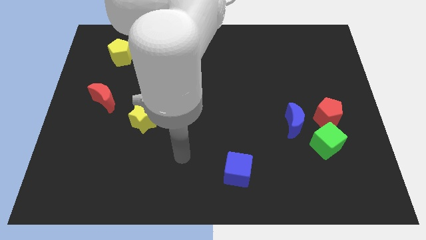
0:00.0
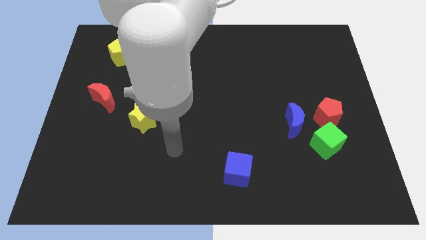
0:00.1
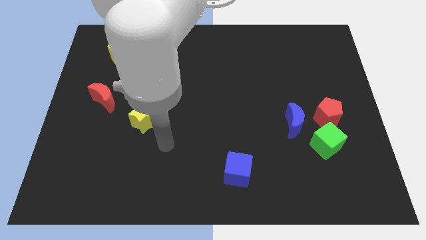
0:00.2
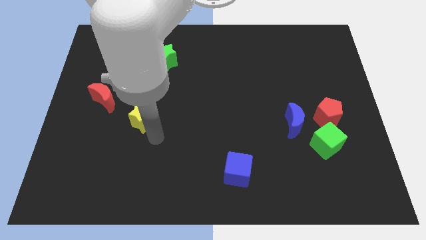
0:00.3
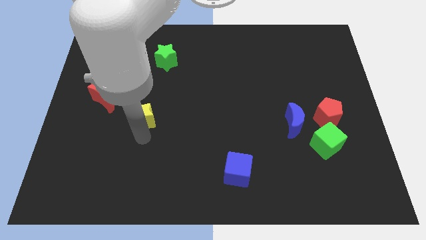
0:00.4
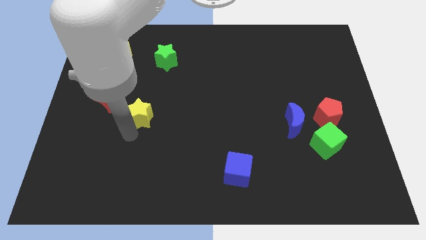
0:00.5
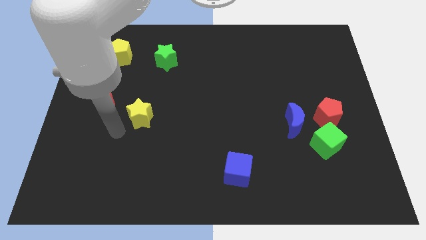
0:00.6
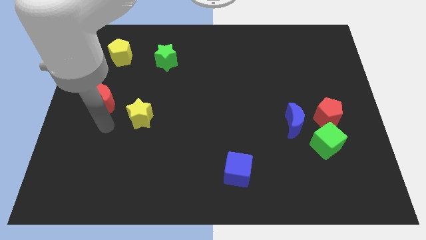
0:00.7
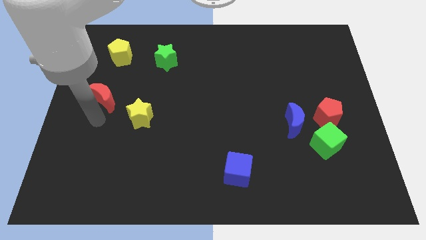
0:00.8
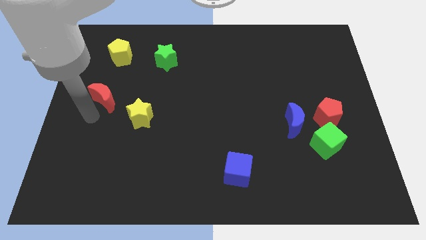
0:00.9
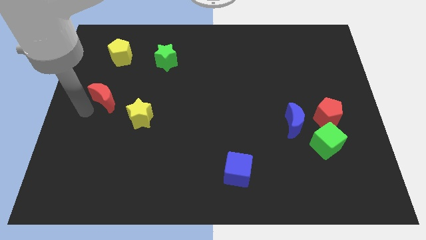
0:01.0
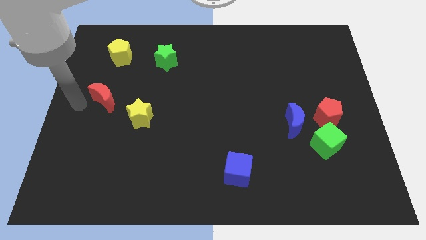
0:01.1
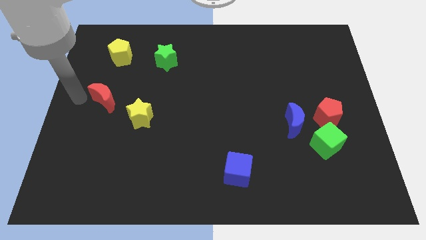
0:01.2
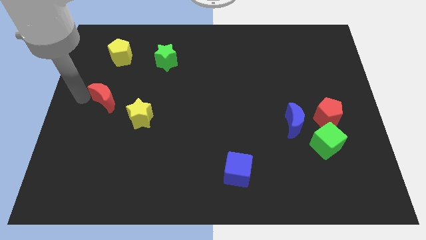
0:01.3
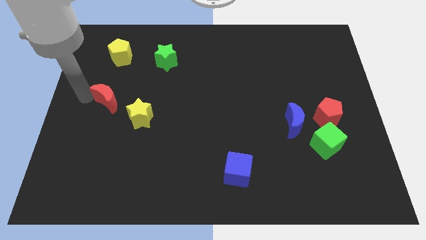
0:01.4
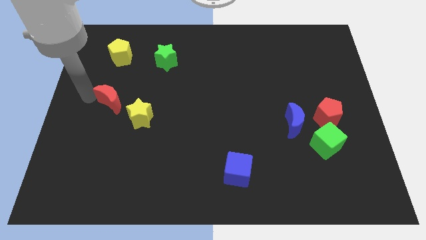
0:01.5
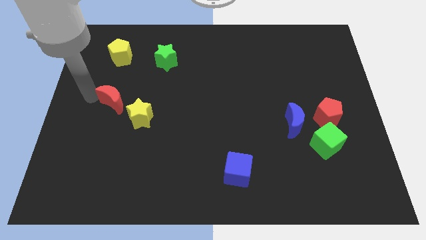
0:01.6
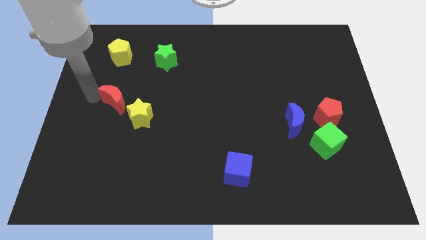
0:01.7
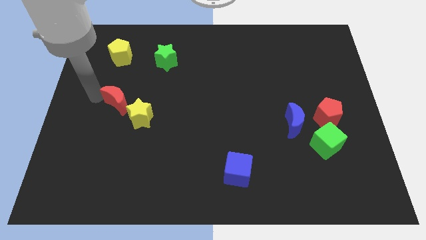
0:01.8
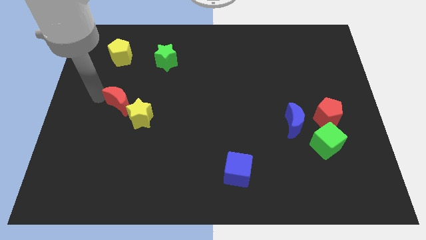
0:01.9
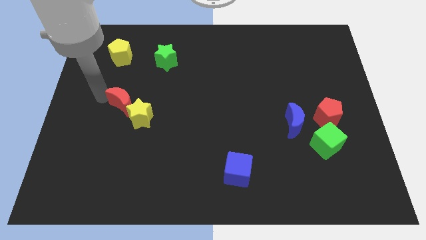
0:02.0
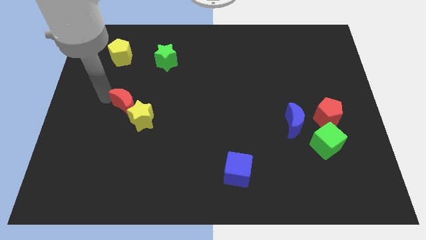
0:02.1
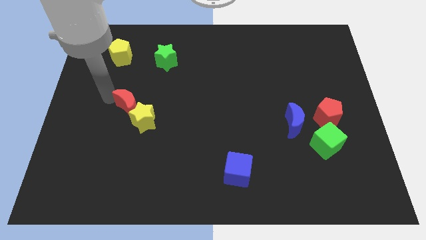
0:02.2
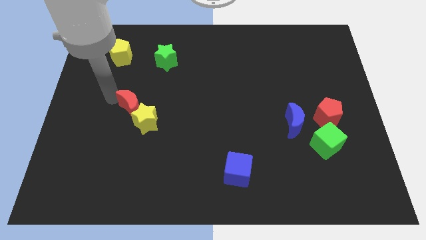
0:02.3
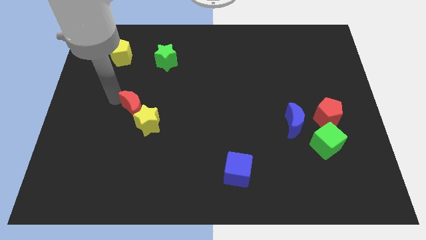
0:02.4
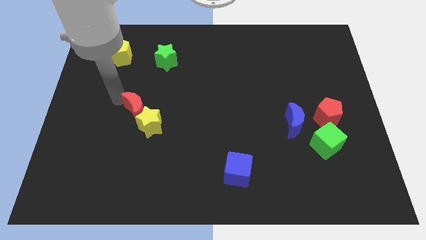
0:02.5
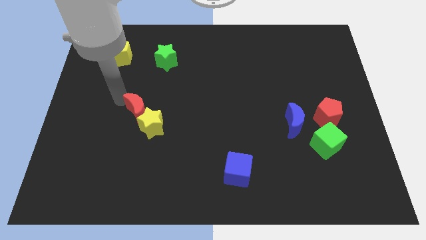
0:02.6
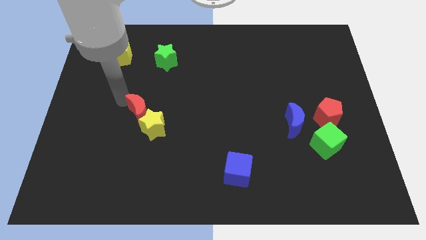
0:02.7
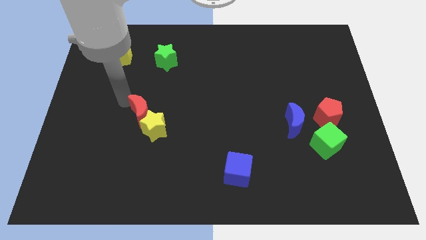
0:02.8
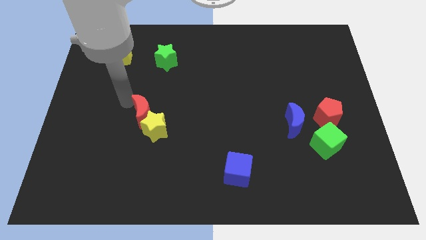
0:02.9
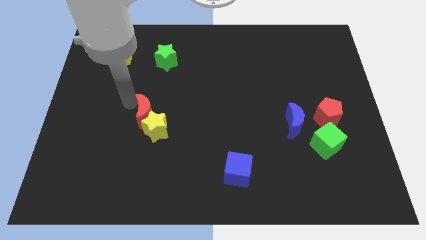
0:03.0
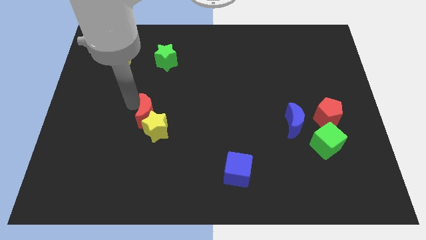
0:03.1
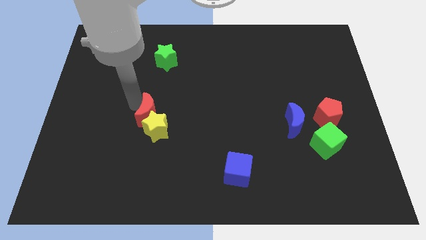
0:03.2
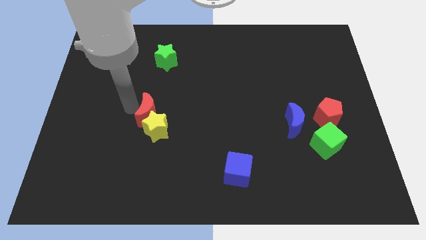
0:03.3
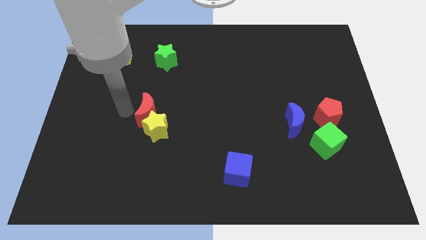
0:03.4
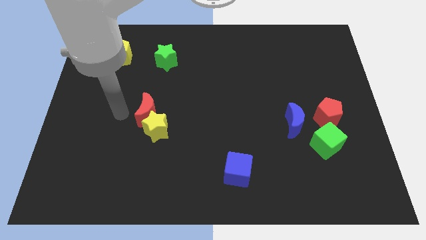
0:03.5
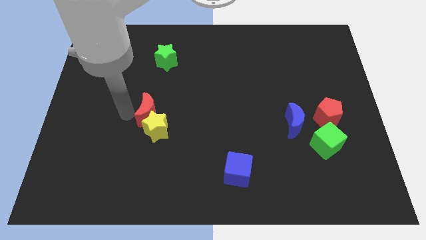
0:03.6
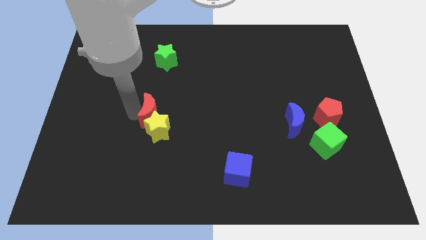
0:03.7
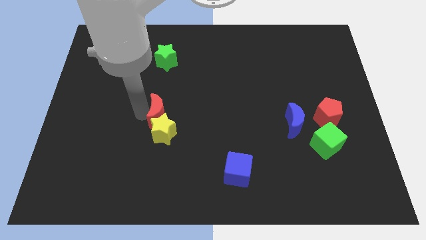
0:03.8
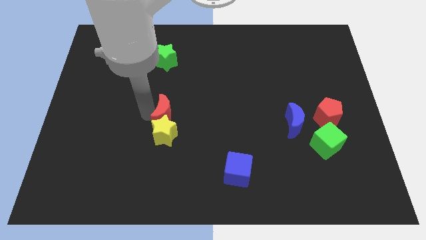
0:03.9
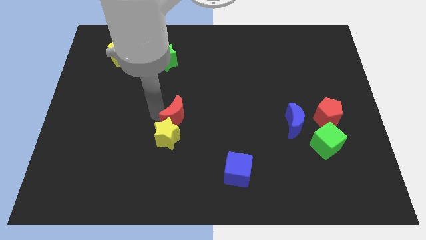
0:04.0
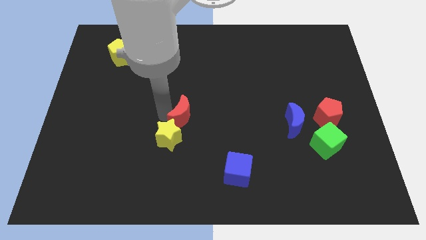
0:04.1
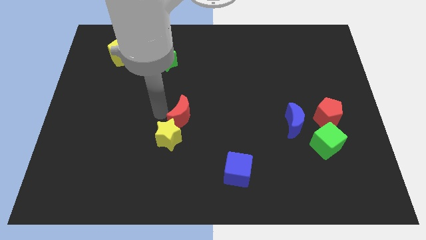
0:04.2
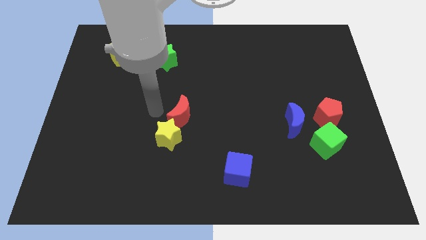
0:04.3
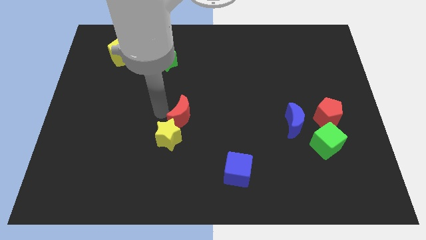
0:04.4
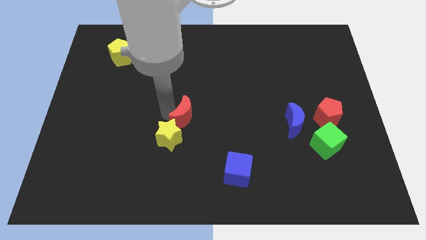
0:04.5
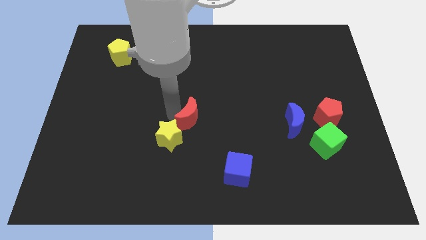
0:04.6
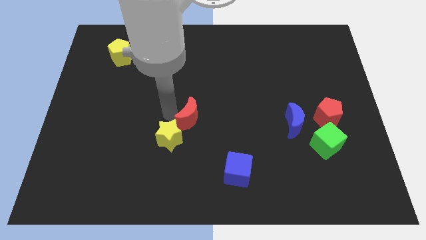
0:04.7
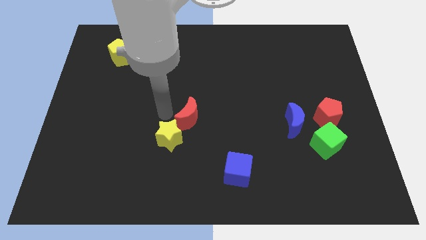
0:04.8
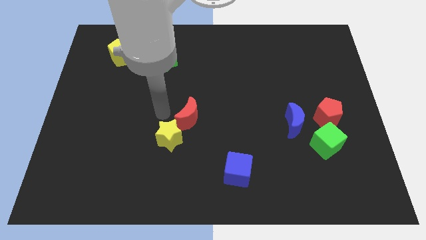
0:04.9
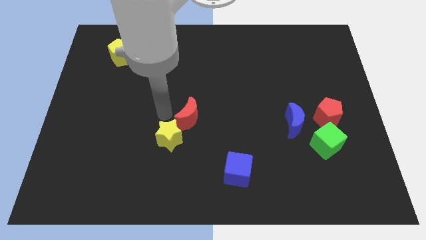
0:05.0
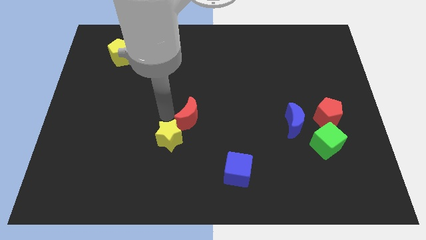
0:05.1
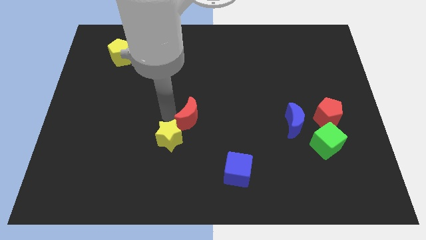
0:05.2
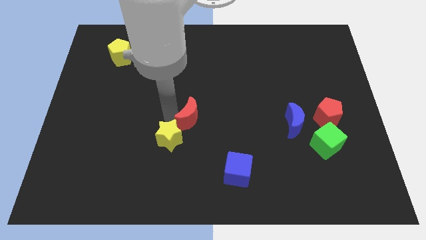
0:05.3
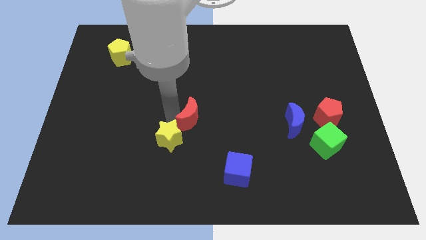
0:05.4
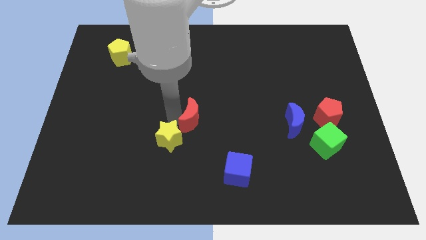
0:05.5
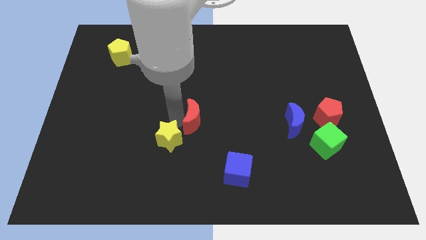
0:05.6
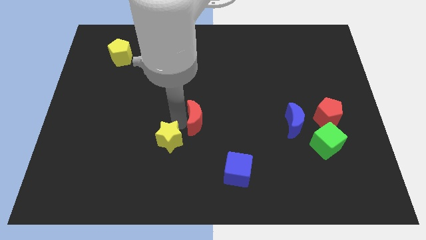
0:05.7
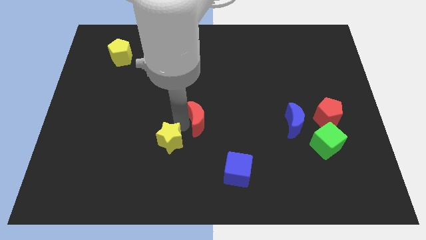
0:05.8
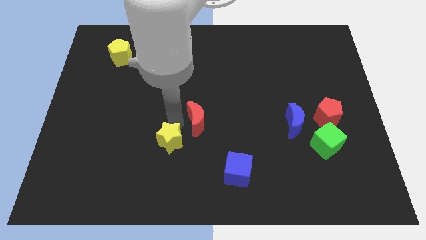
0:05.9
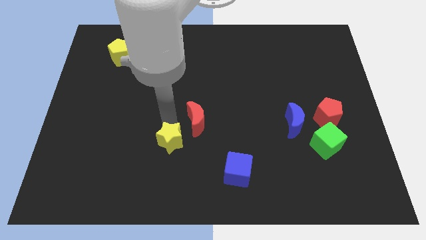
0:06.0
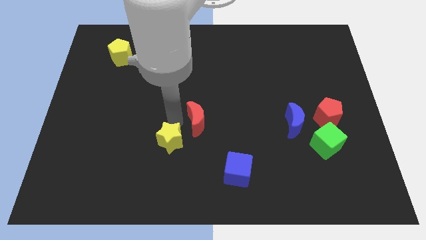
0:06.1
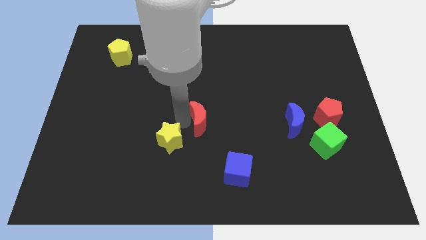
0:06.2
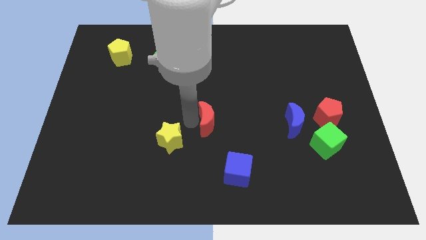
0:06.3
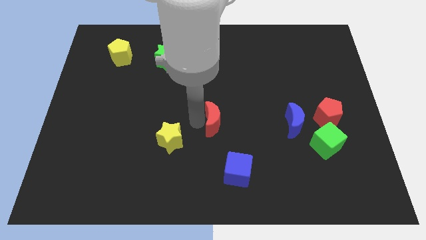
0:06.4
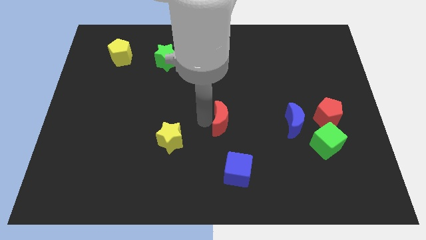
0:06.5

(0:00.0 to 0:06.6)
put the red moon to the top side of the blue cube

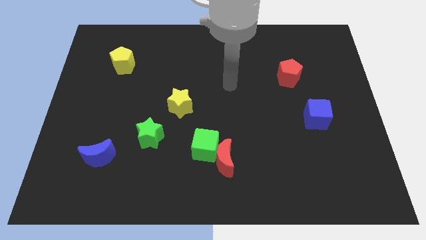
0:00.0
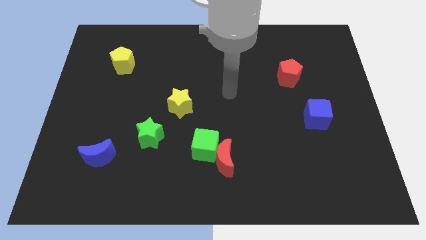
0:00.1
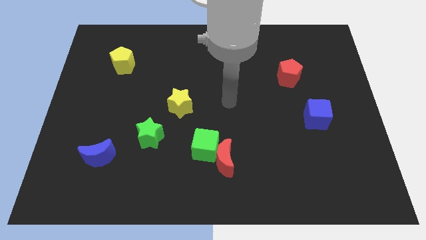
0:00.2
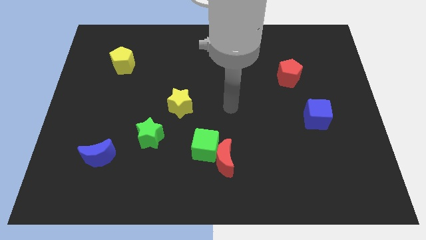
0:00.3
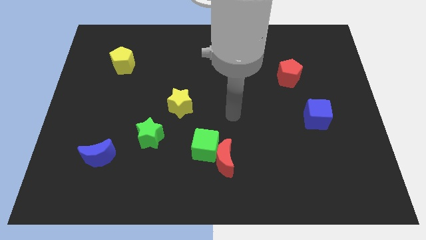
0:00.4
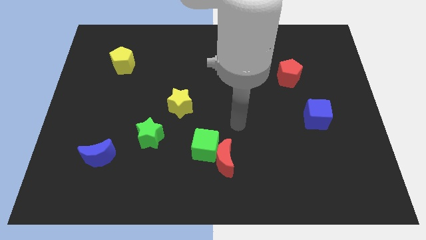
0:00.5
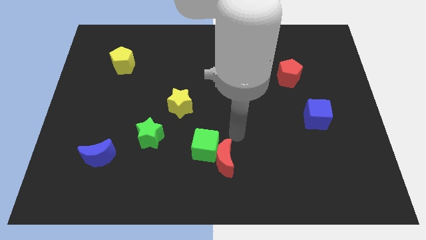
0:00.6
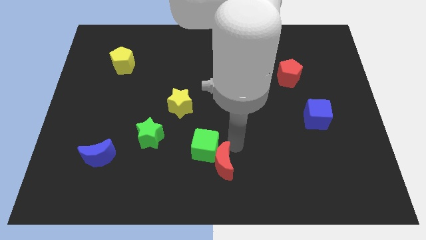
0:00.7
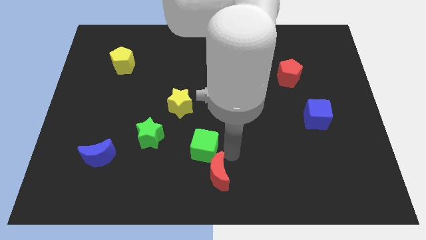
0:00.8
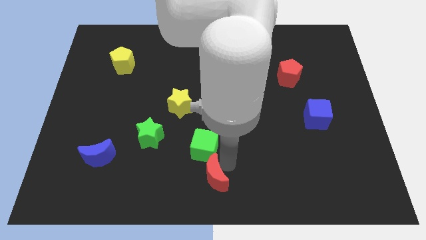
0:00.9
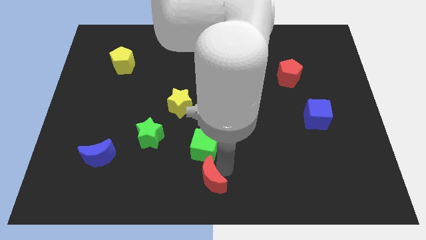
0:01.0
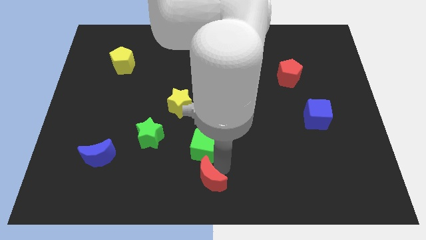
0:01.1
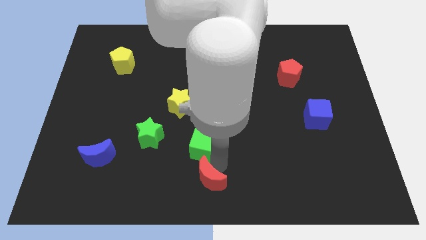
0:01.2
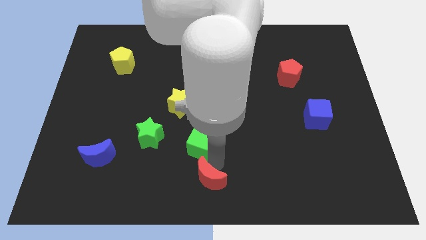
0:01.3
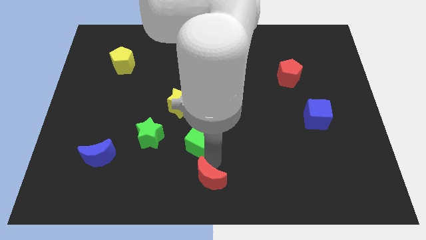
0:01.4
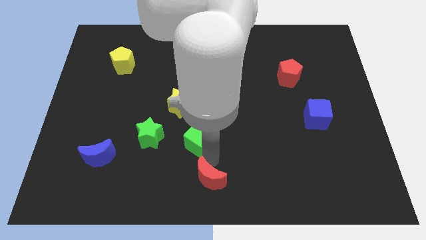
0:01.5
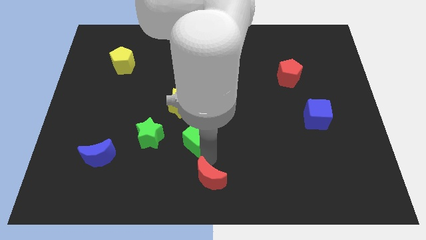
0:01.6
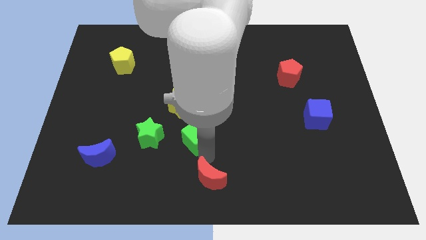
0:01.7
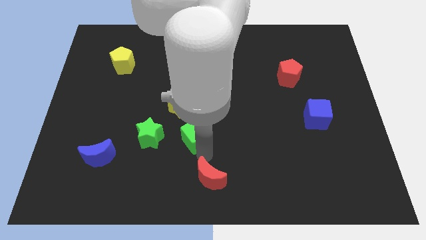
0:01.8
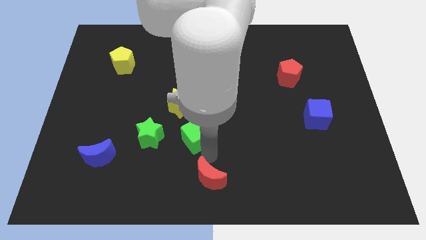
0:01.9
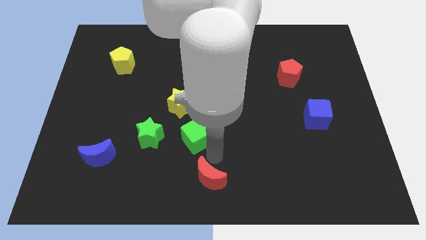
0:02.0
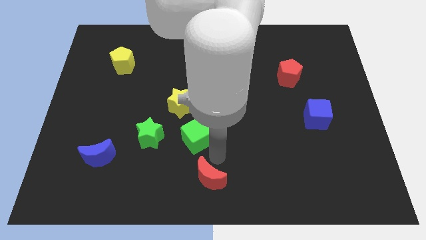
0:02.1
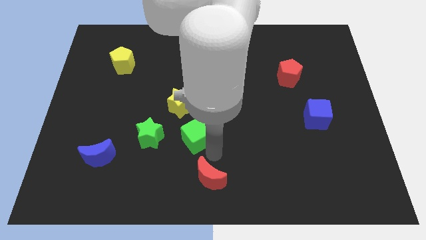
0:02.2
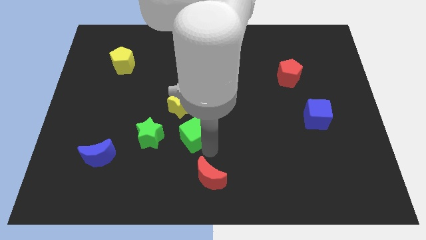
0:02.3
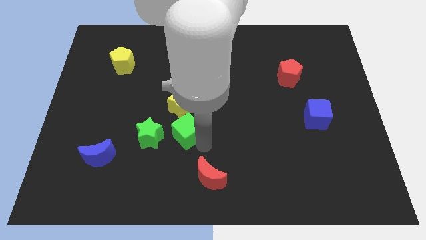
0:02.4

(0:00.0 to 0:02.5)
push the green cube diagonally up and to the right of the green star
